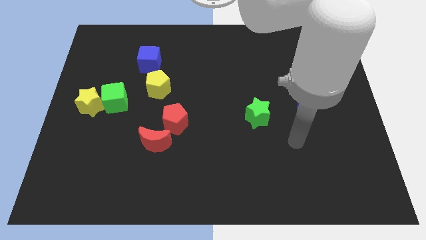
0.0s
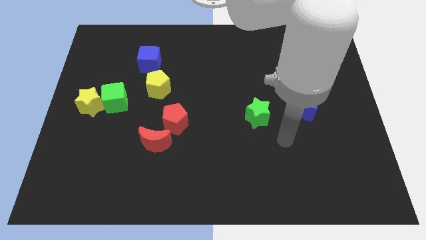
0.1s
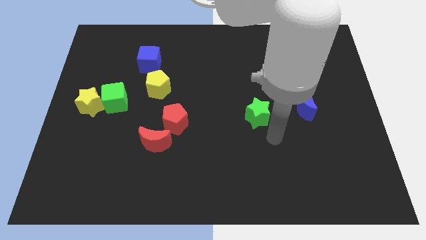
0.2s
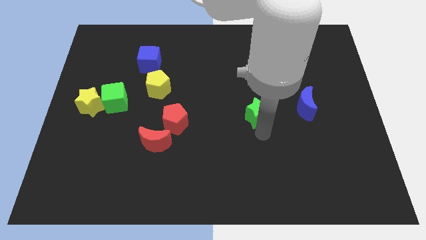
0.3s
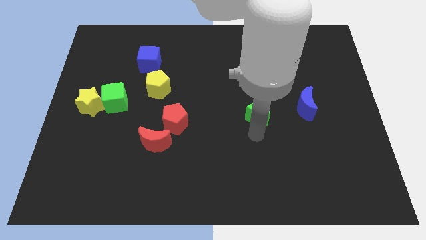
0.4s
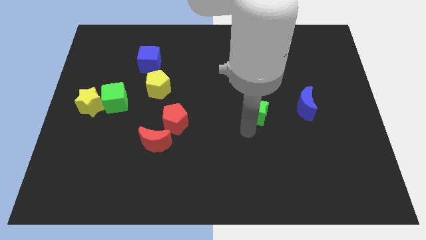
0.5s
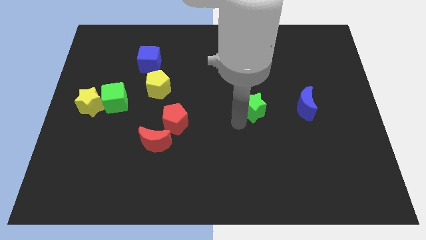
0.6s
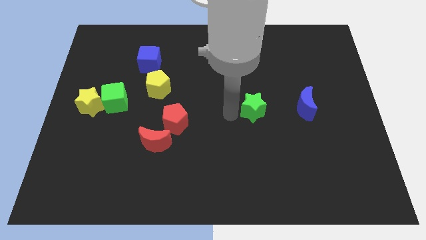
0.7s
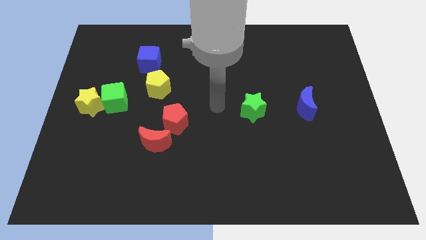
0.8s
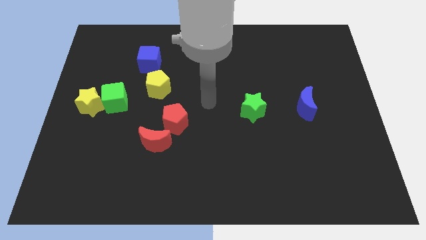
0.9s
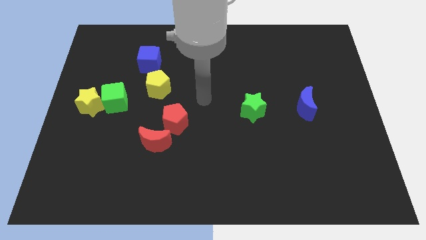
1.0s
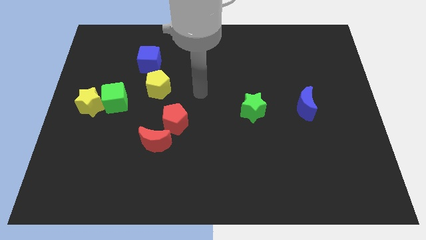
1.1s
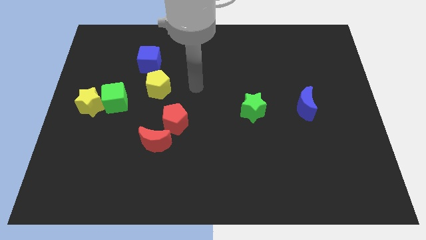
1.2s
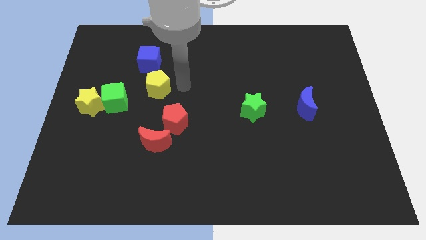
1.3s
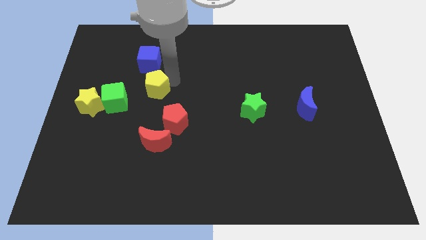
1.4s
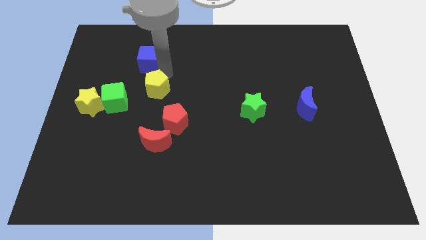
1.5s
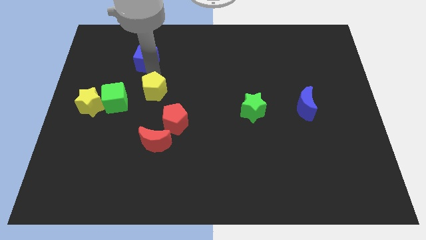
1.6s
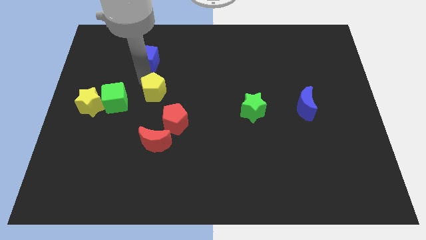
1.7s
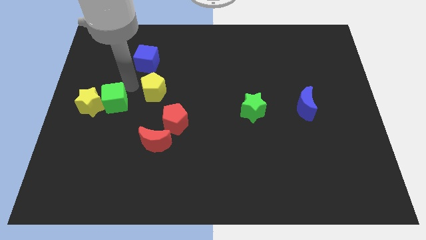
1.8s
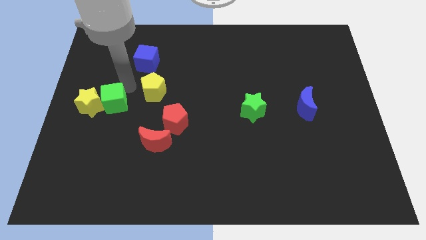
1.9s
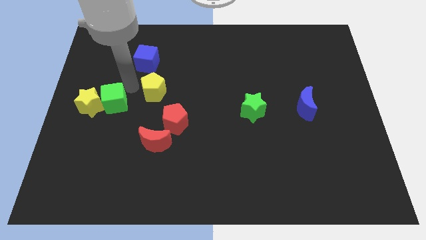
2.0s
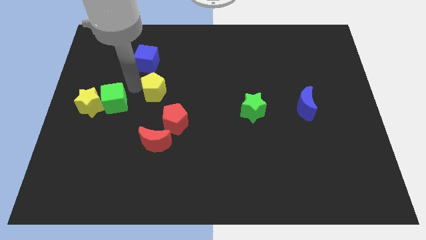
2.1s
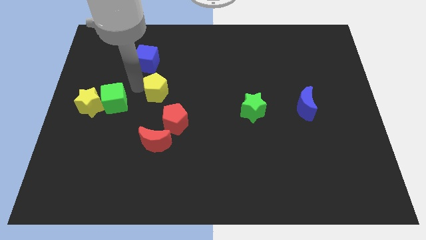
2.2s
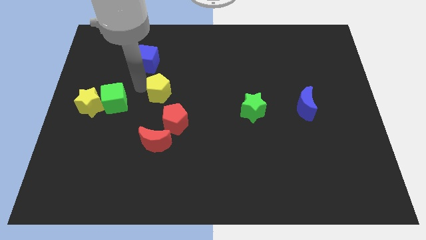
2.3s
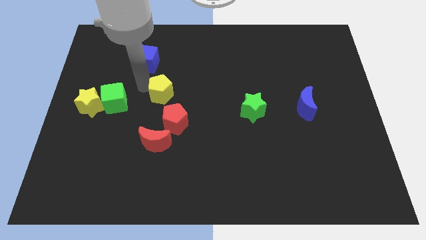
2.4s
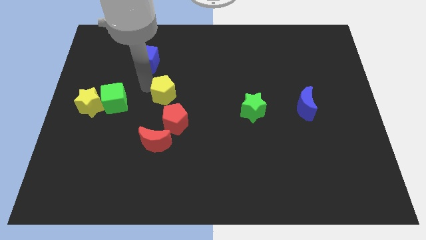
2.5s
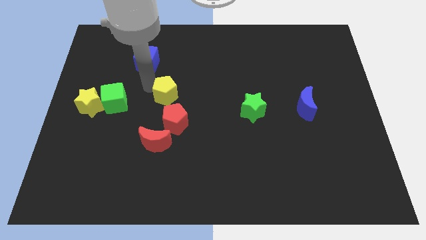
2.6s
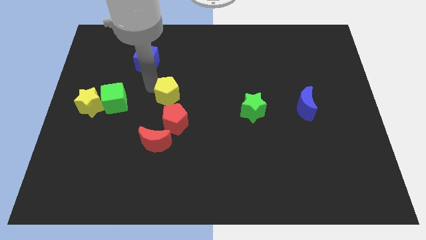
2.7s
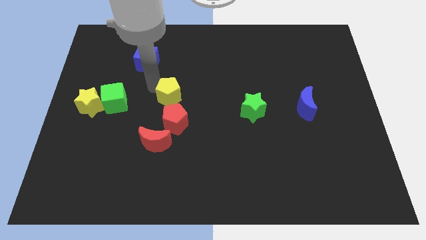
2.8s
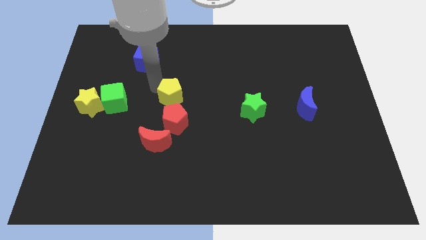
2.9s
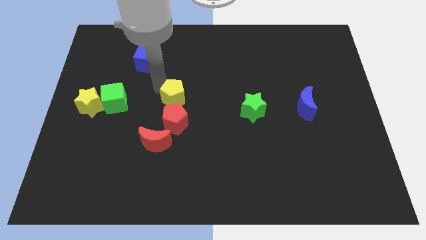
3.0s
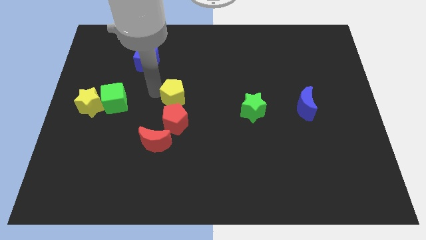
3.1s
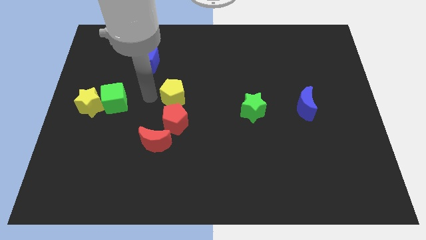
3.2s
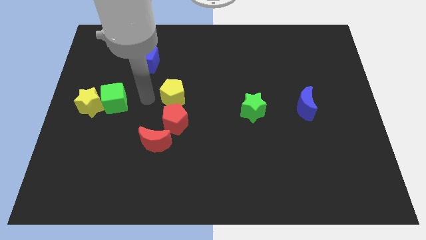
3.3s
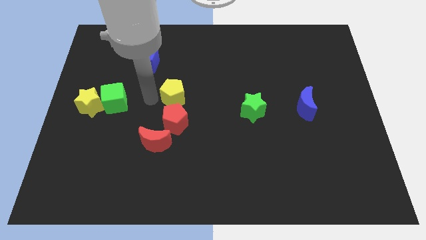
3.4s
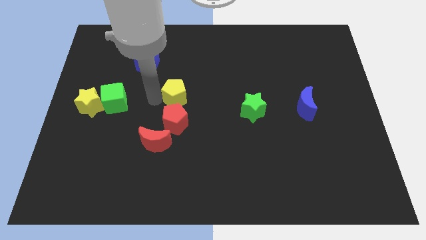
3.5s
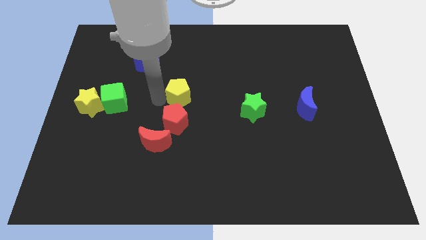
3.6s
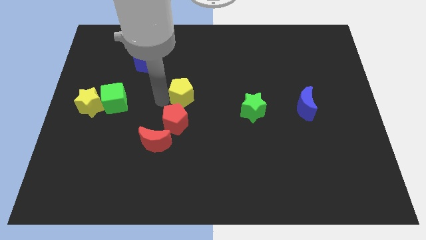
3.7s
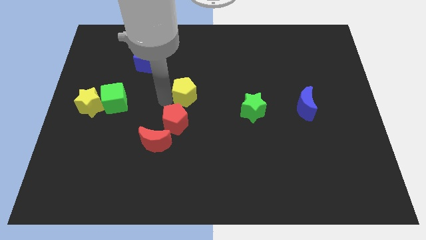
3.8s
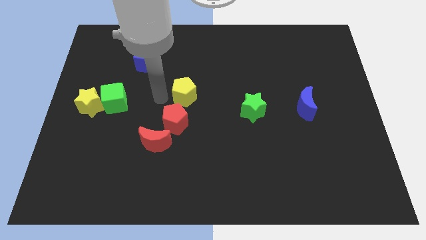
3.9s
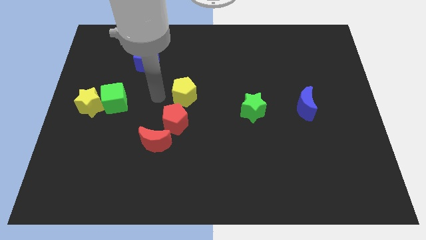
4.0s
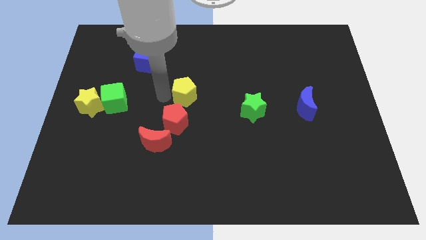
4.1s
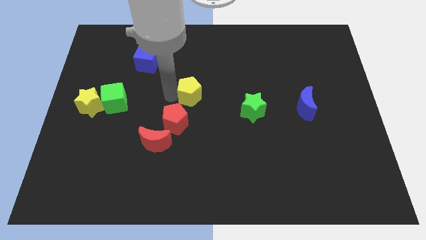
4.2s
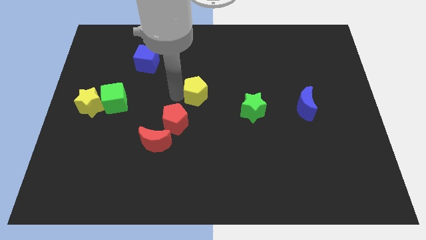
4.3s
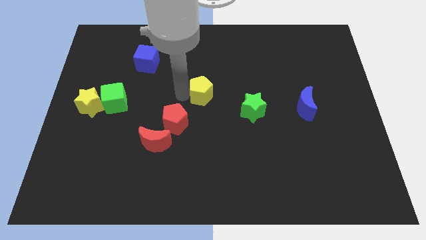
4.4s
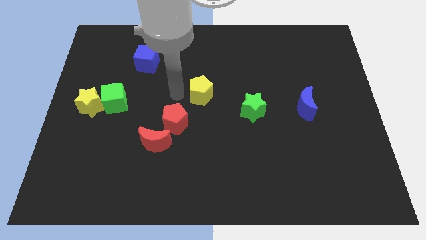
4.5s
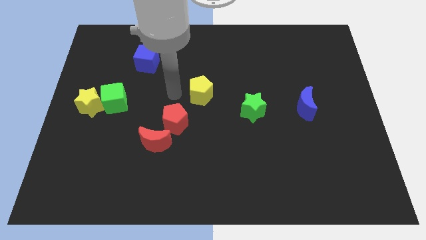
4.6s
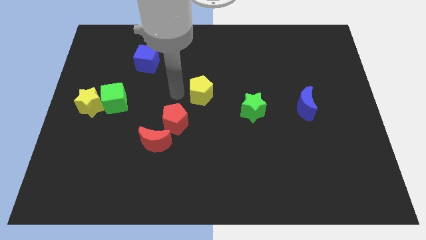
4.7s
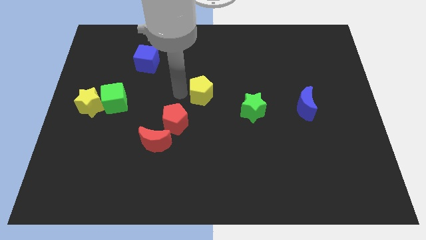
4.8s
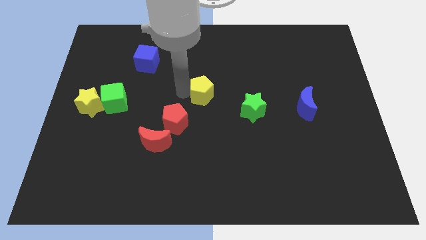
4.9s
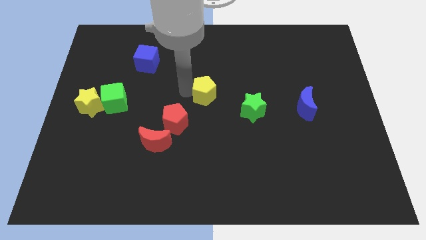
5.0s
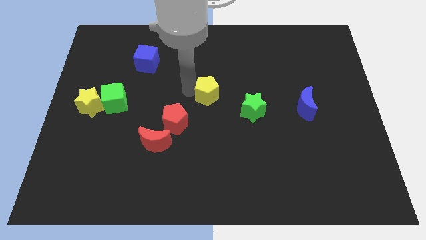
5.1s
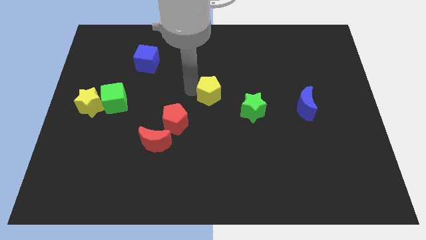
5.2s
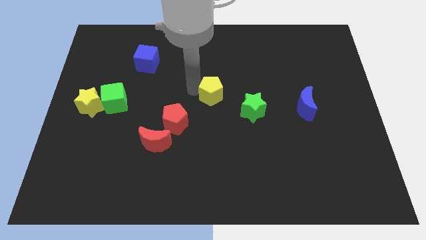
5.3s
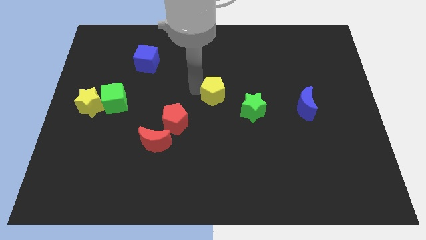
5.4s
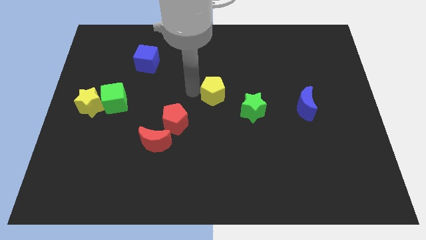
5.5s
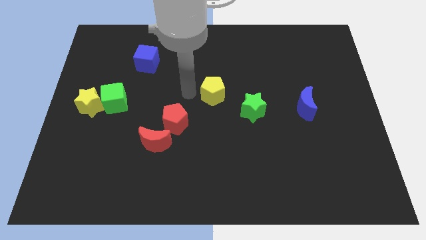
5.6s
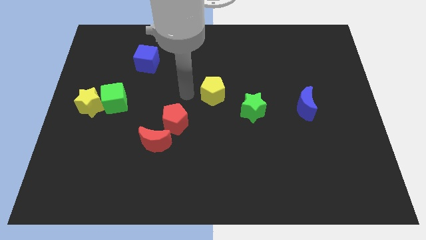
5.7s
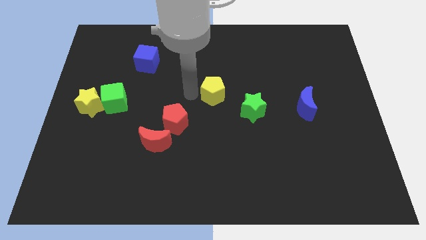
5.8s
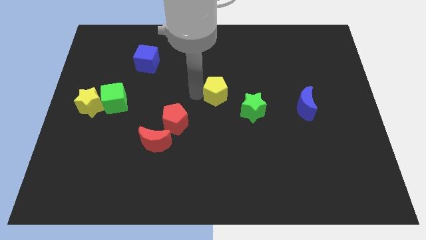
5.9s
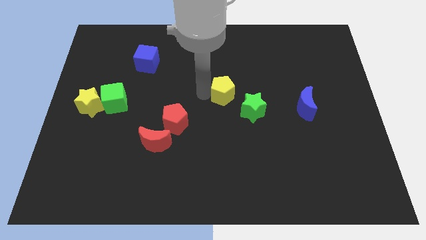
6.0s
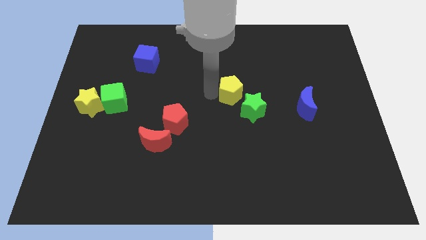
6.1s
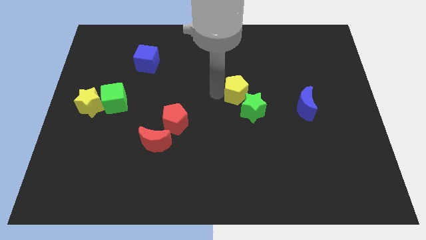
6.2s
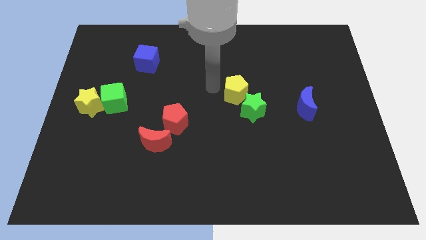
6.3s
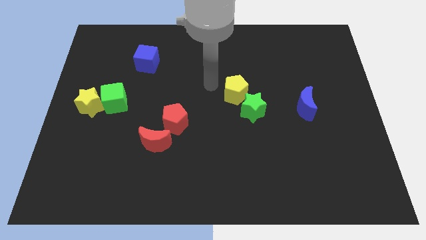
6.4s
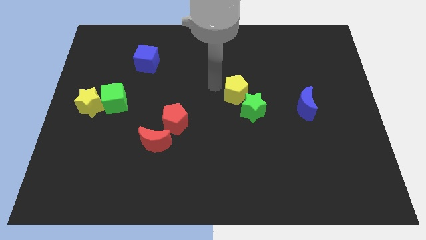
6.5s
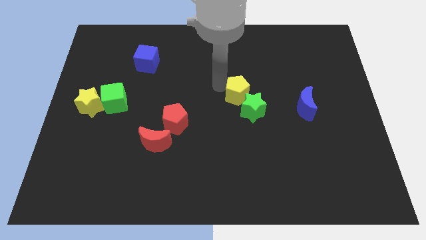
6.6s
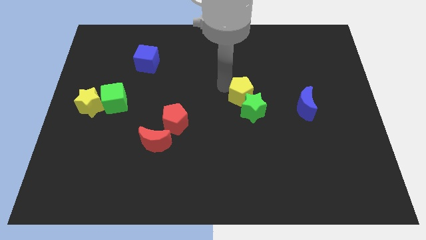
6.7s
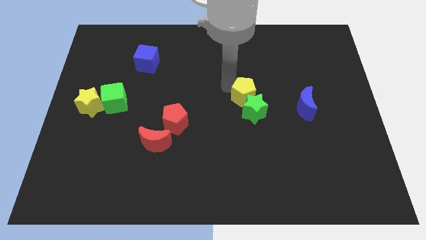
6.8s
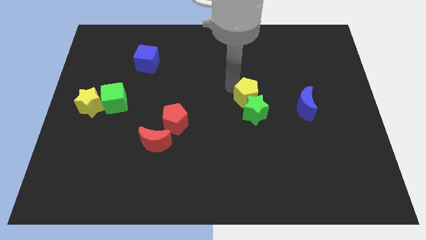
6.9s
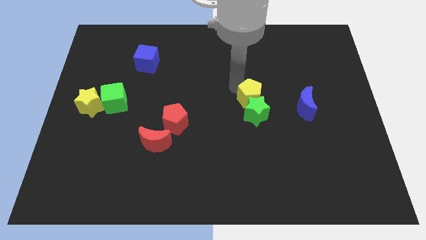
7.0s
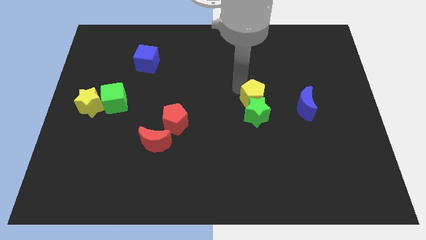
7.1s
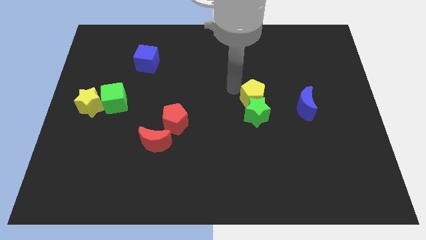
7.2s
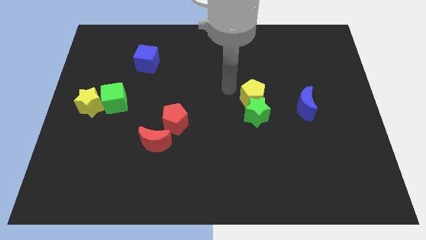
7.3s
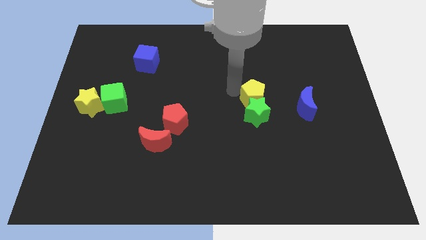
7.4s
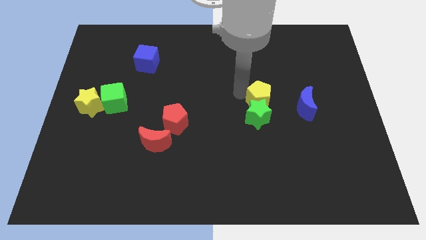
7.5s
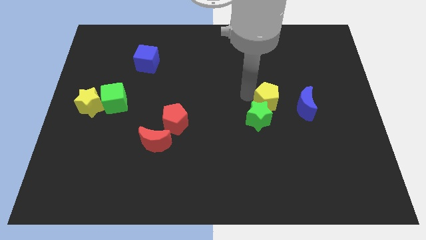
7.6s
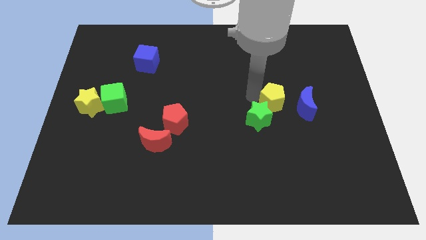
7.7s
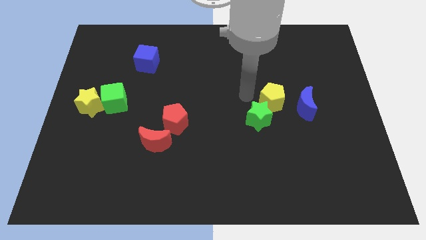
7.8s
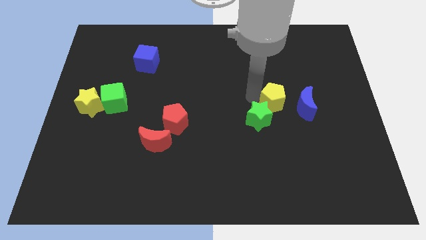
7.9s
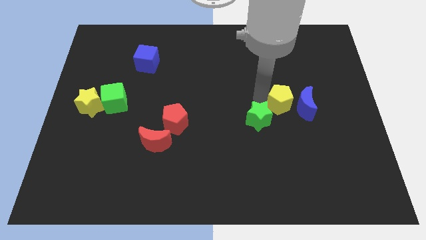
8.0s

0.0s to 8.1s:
move the yellow pentagon to the blue moon

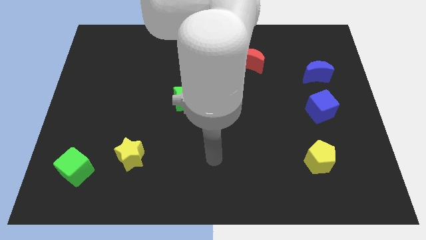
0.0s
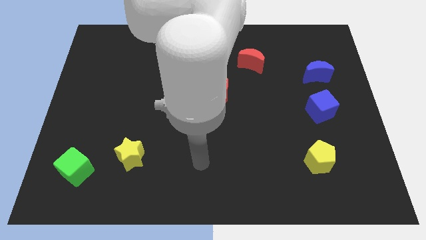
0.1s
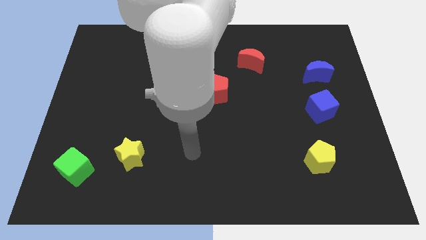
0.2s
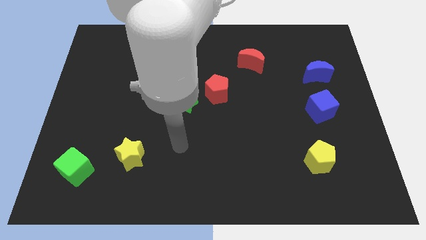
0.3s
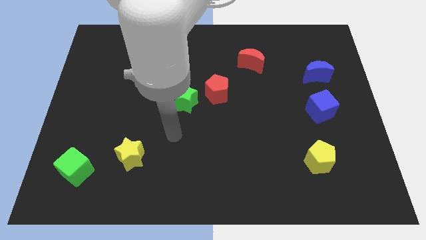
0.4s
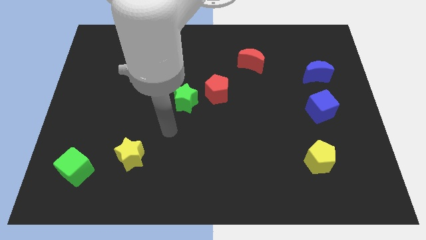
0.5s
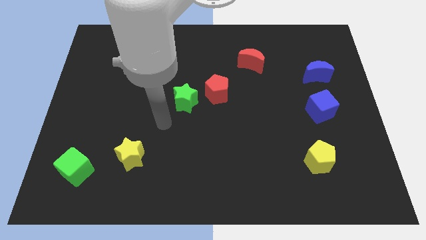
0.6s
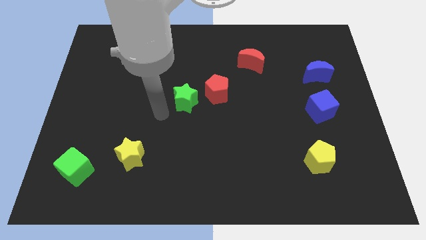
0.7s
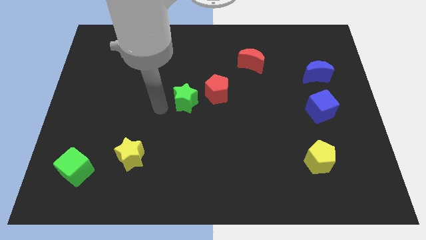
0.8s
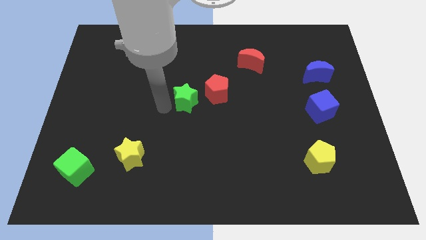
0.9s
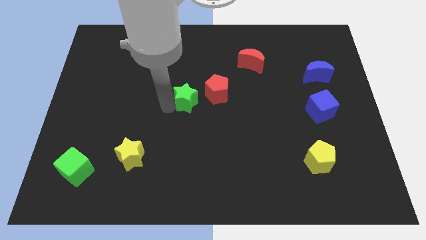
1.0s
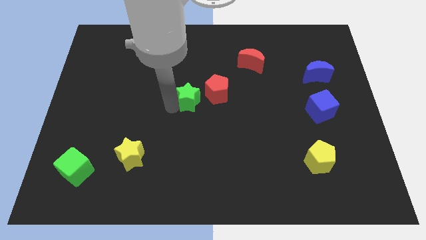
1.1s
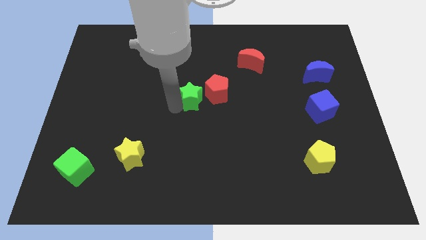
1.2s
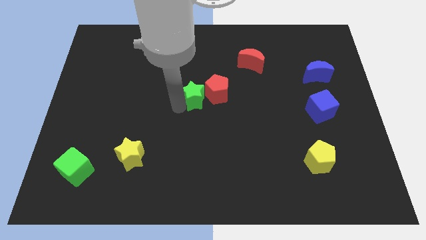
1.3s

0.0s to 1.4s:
move the green star to the red pentagon
